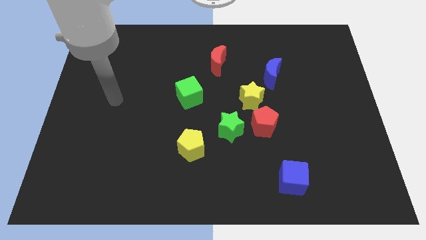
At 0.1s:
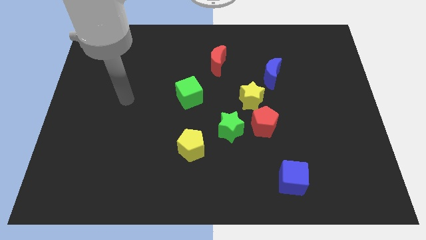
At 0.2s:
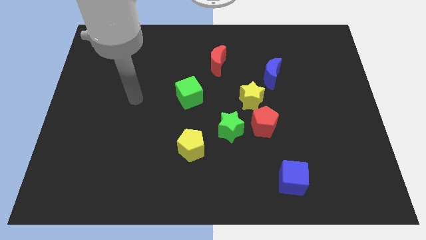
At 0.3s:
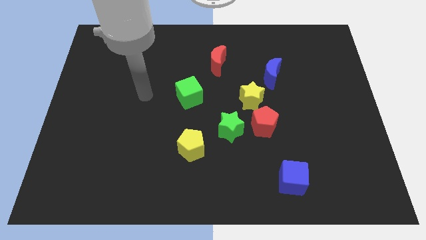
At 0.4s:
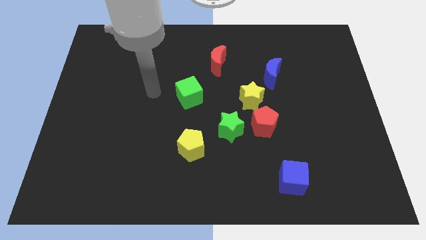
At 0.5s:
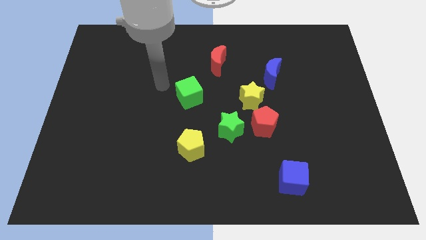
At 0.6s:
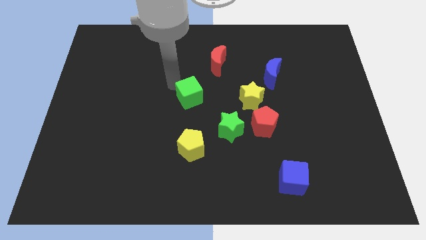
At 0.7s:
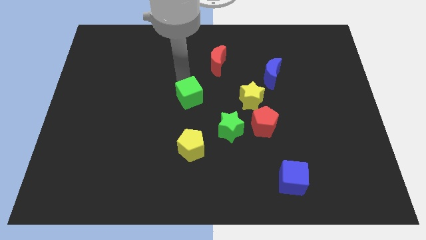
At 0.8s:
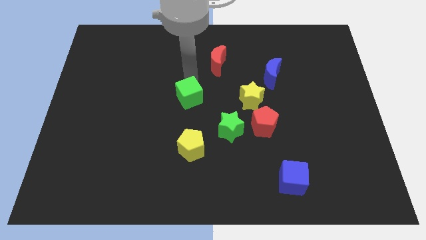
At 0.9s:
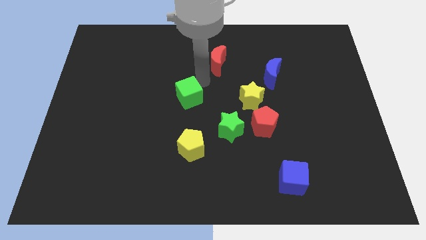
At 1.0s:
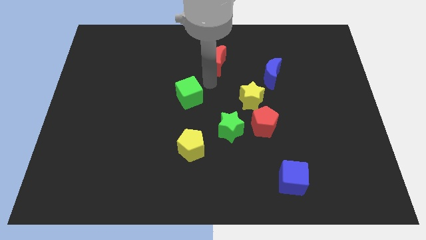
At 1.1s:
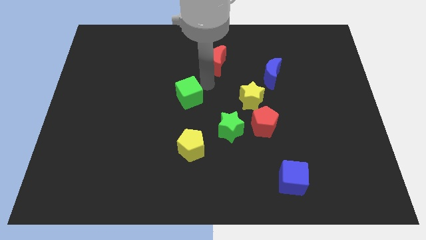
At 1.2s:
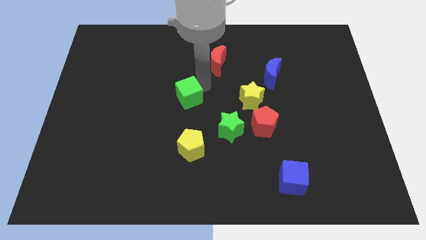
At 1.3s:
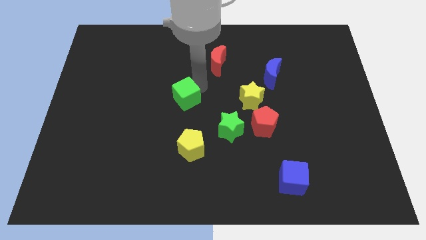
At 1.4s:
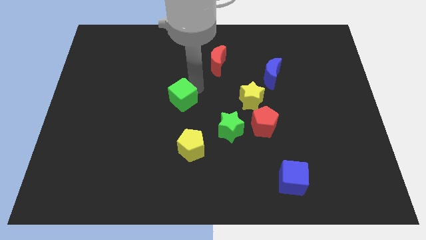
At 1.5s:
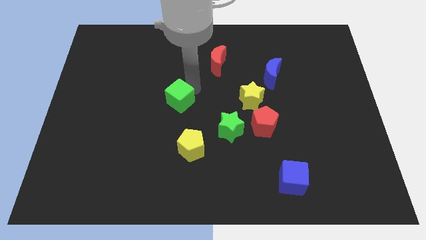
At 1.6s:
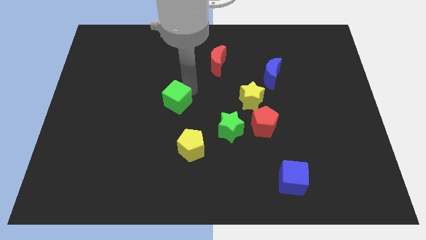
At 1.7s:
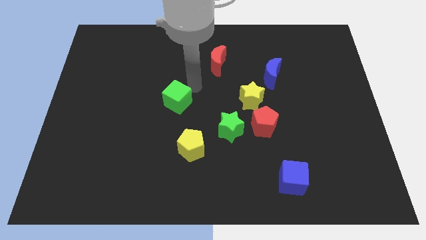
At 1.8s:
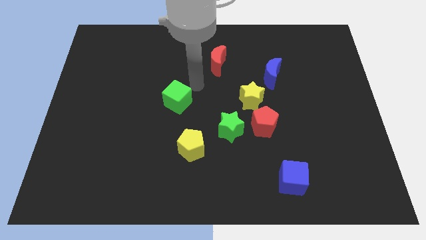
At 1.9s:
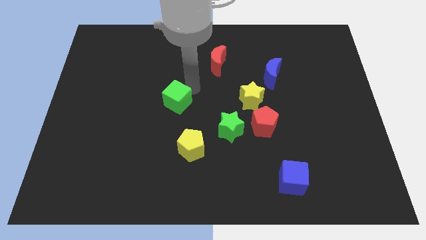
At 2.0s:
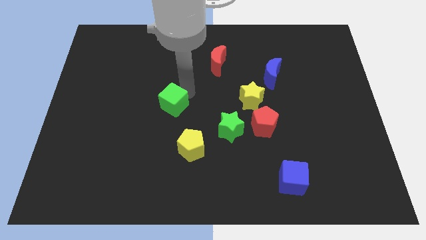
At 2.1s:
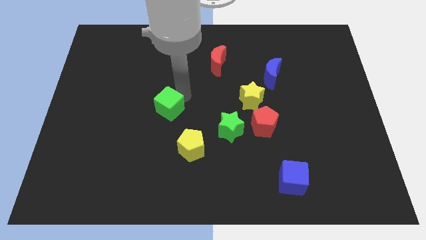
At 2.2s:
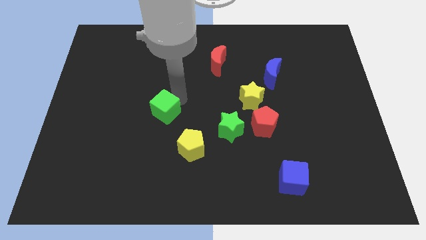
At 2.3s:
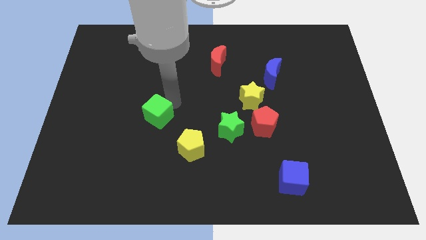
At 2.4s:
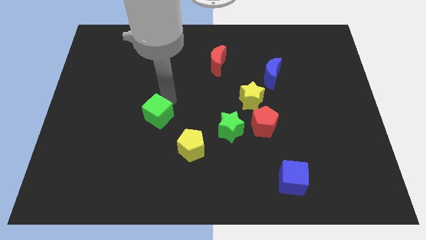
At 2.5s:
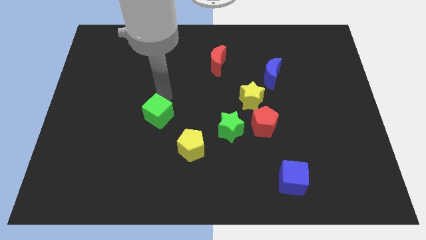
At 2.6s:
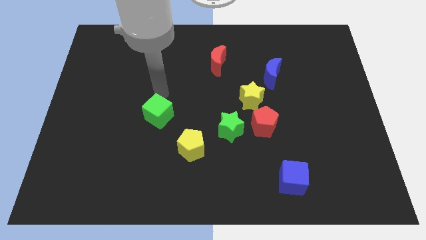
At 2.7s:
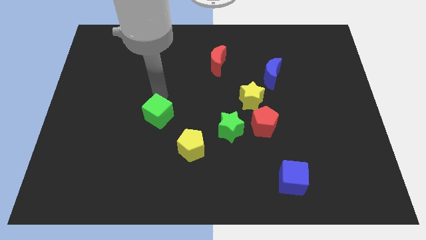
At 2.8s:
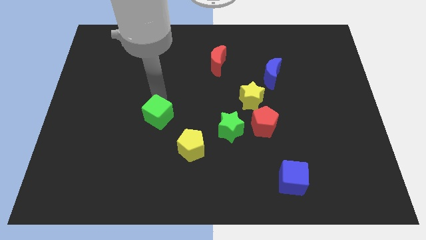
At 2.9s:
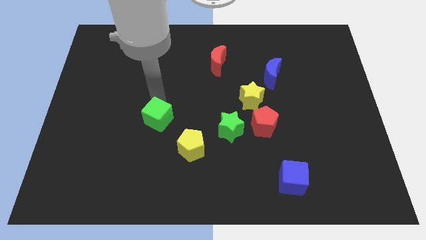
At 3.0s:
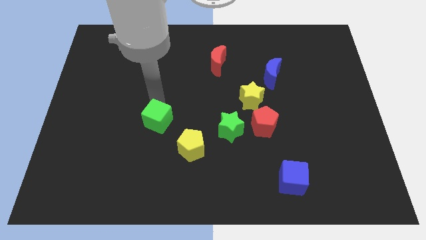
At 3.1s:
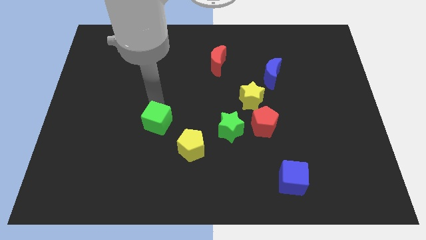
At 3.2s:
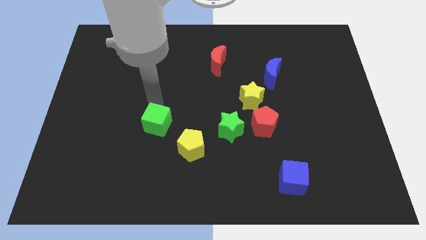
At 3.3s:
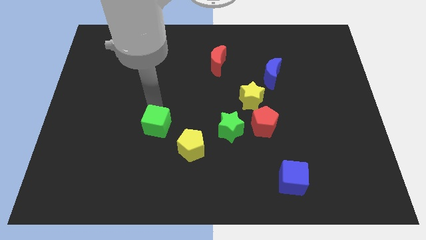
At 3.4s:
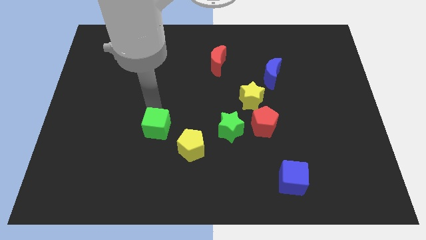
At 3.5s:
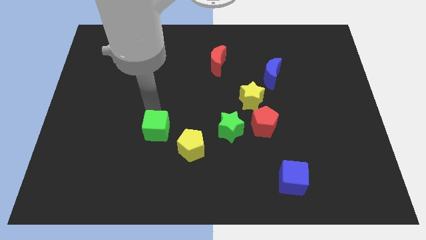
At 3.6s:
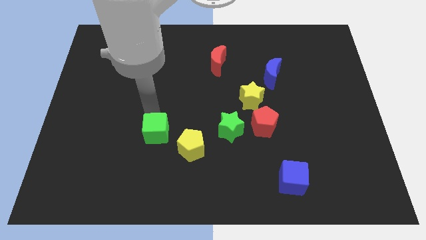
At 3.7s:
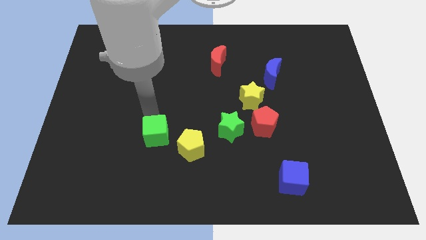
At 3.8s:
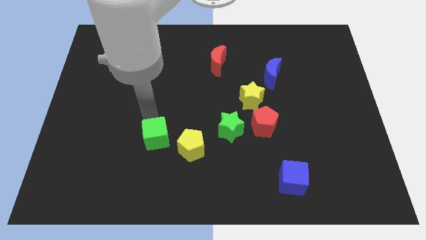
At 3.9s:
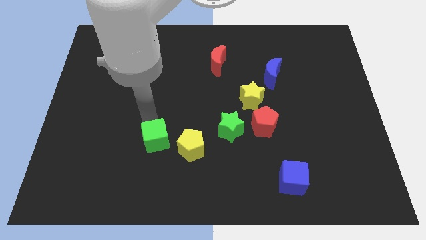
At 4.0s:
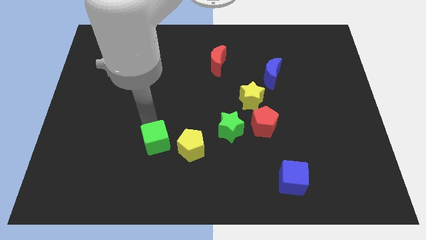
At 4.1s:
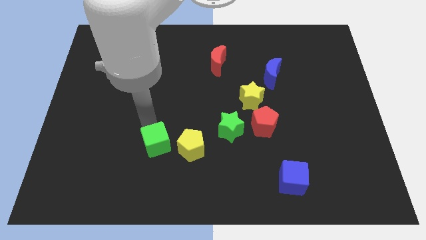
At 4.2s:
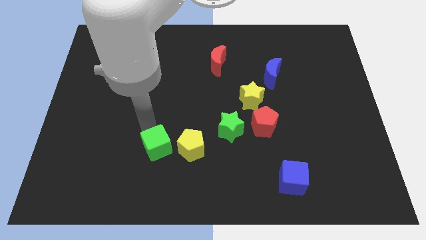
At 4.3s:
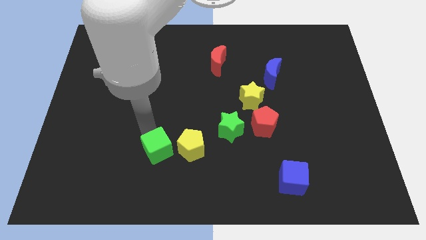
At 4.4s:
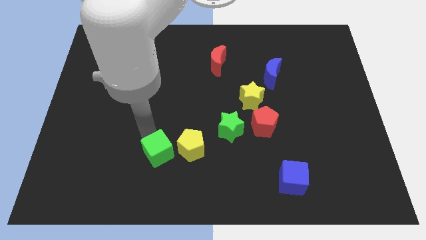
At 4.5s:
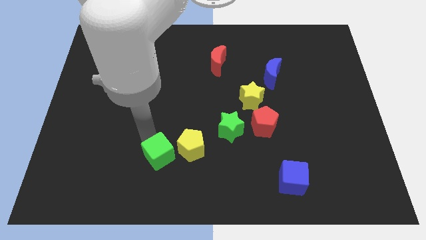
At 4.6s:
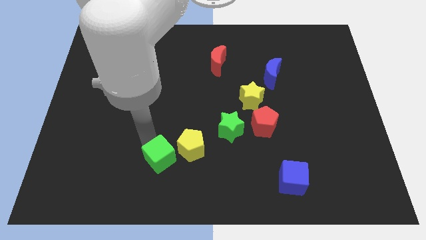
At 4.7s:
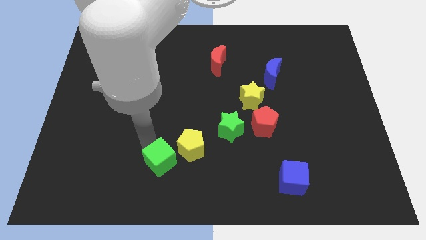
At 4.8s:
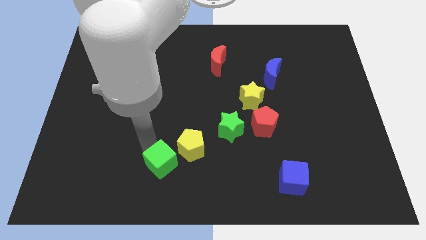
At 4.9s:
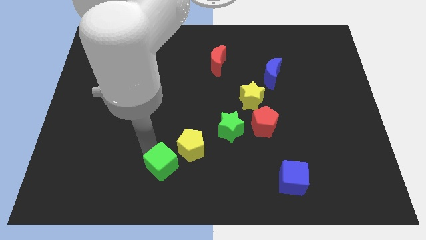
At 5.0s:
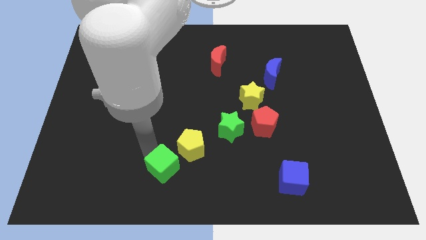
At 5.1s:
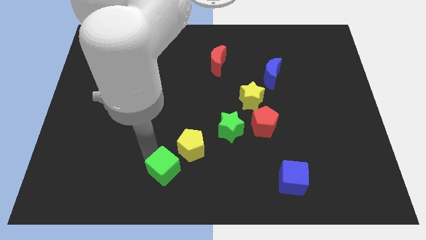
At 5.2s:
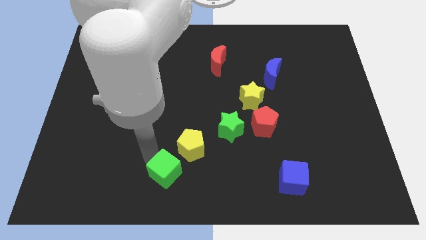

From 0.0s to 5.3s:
move the green cube to the bottom

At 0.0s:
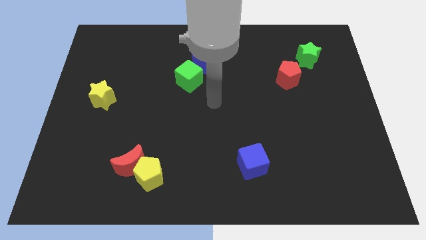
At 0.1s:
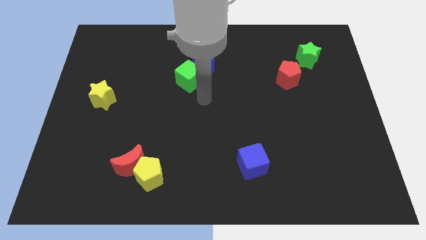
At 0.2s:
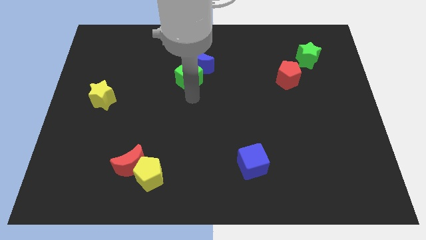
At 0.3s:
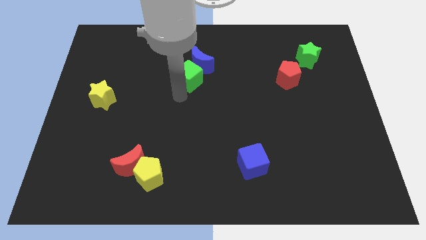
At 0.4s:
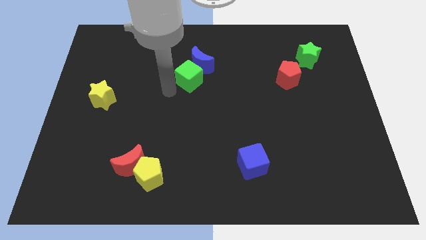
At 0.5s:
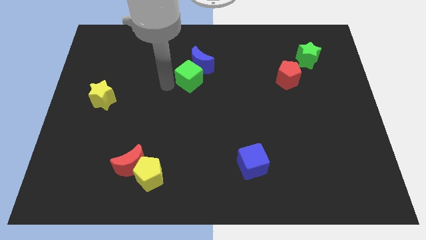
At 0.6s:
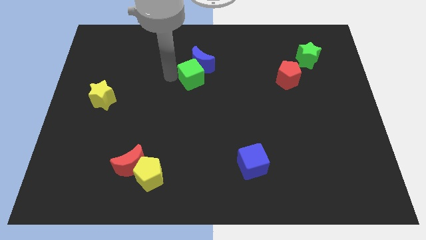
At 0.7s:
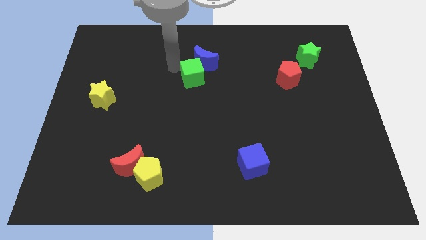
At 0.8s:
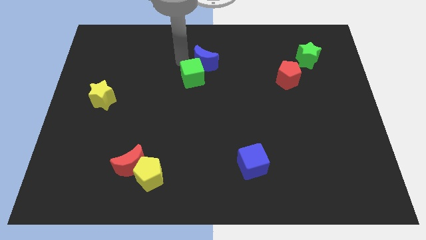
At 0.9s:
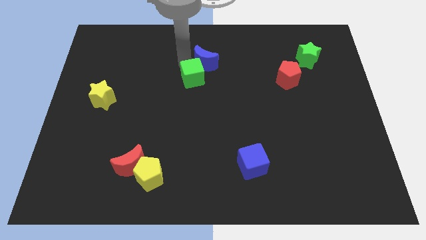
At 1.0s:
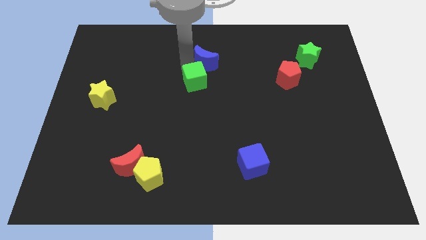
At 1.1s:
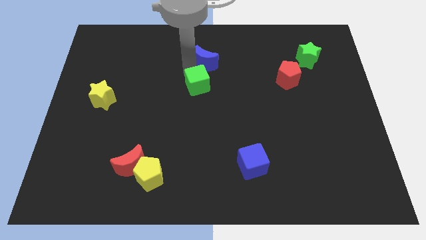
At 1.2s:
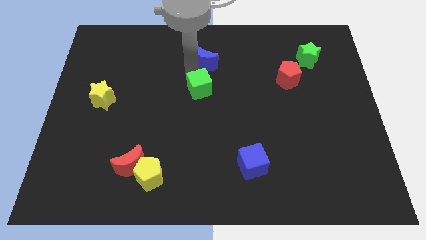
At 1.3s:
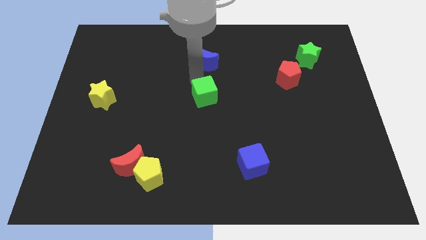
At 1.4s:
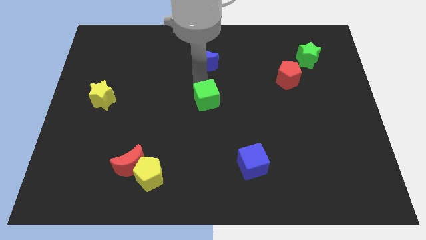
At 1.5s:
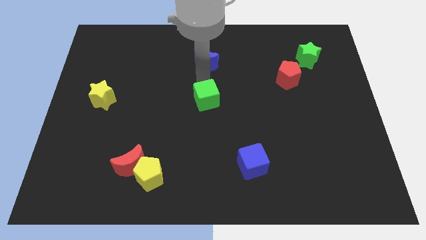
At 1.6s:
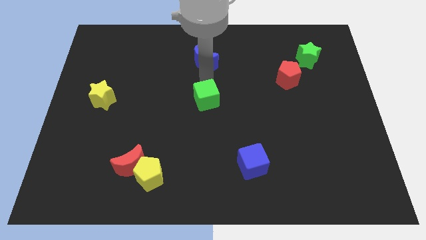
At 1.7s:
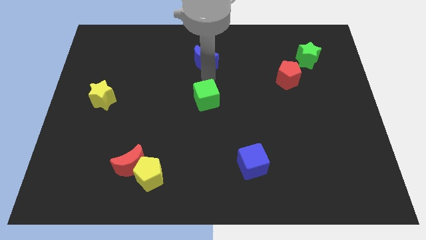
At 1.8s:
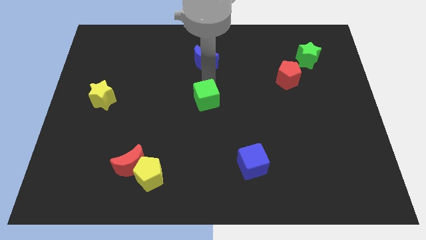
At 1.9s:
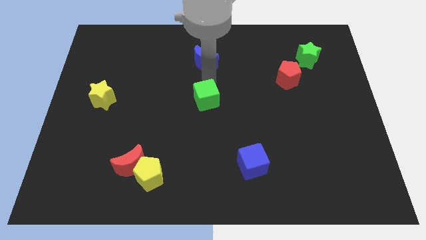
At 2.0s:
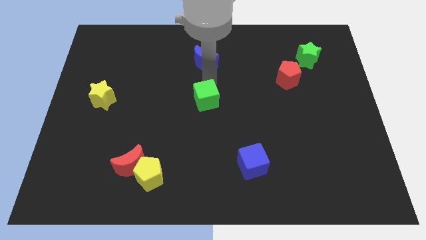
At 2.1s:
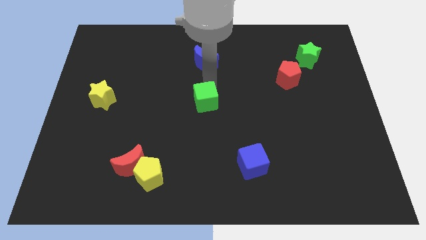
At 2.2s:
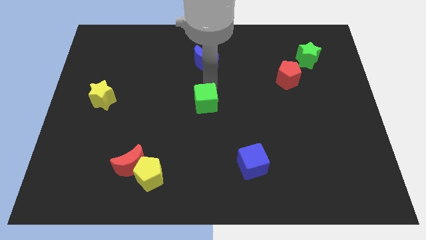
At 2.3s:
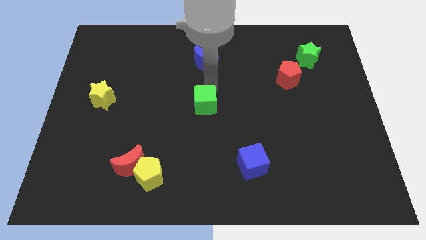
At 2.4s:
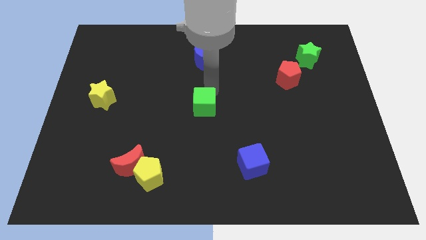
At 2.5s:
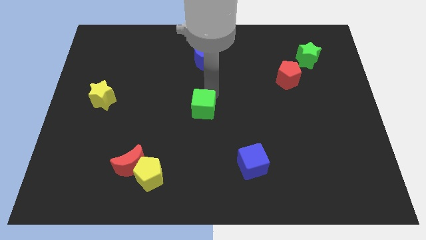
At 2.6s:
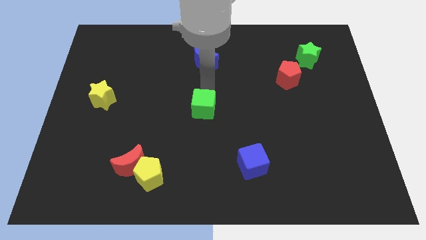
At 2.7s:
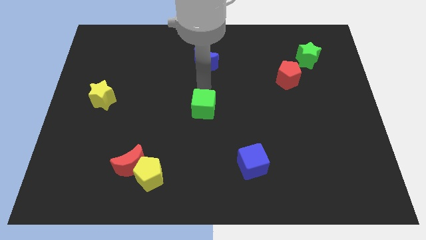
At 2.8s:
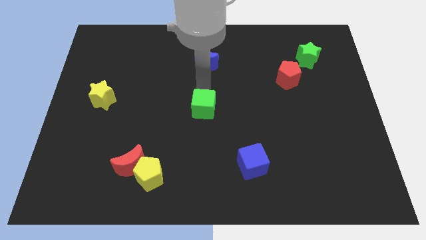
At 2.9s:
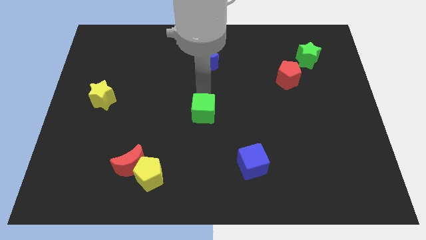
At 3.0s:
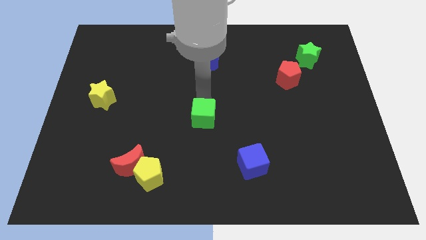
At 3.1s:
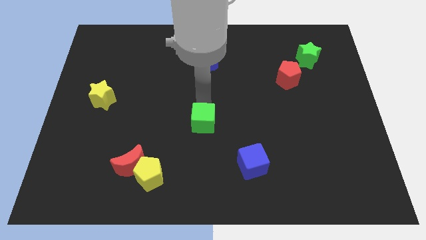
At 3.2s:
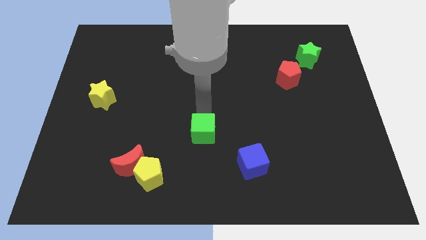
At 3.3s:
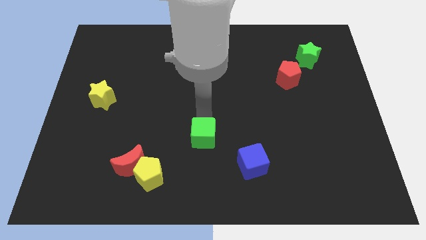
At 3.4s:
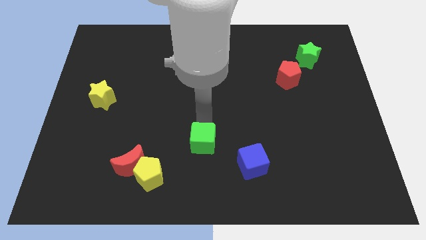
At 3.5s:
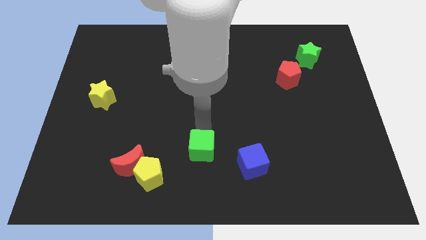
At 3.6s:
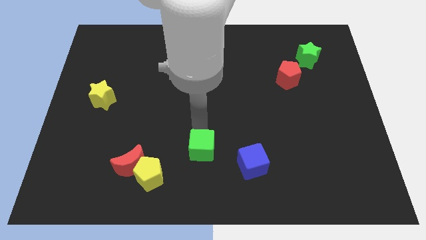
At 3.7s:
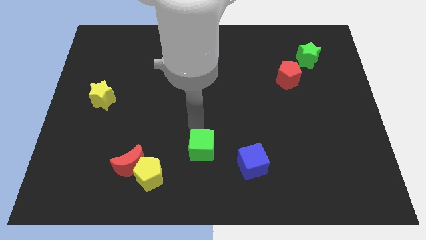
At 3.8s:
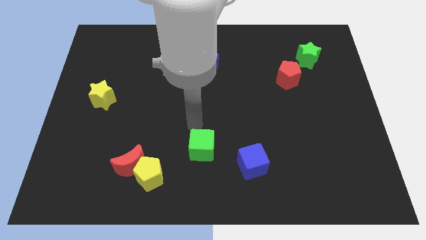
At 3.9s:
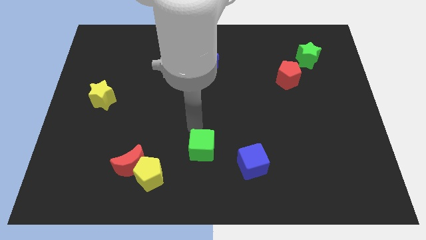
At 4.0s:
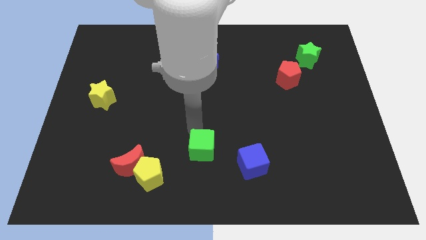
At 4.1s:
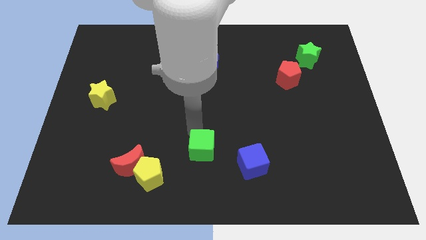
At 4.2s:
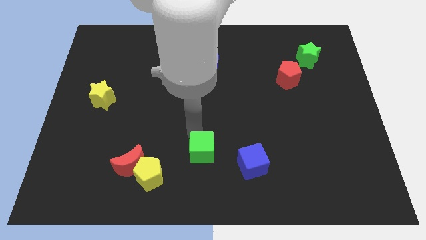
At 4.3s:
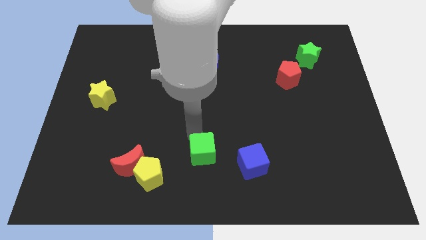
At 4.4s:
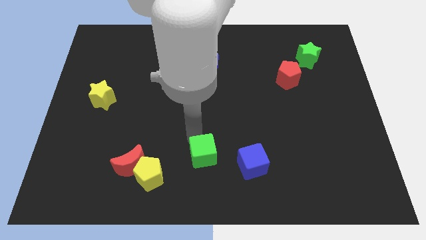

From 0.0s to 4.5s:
put the green cube to the bottom side
